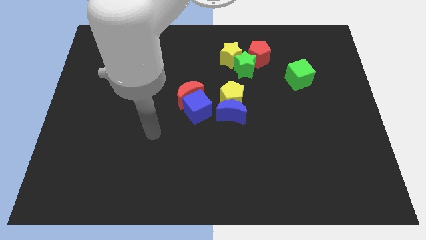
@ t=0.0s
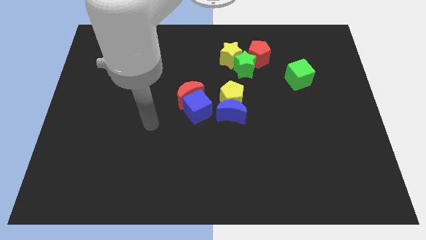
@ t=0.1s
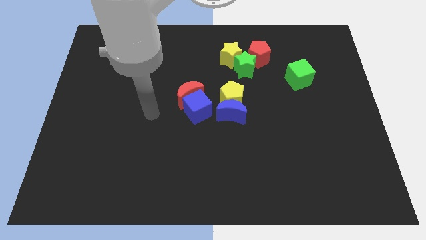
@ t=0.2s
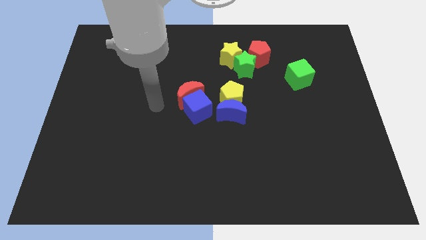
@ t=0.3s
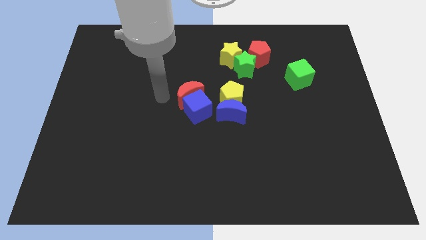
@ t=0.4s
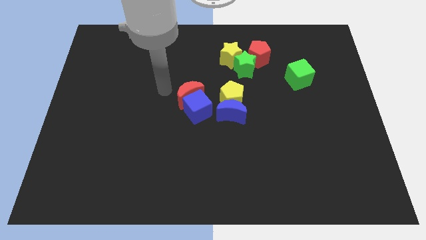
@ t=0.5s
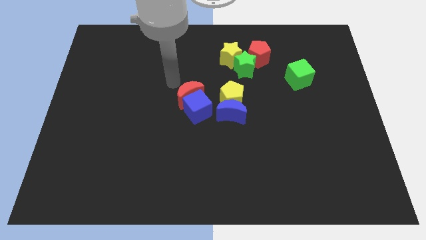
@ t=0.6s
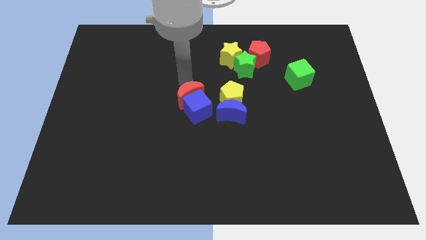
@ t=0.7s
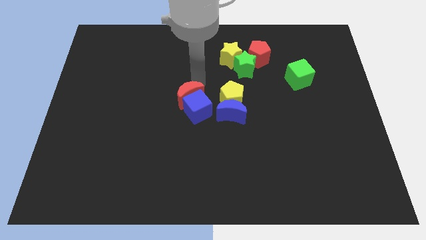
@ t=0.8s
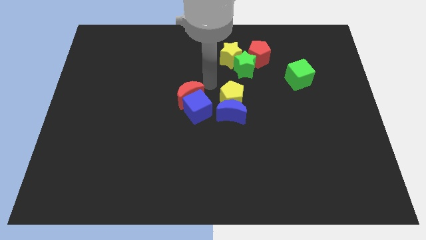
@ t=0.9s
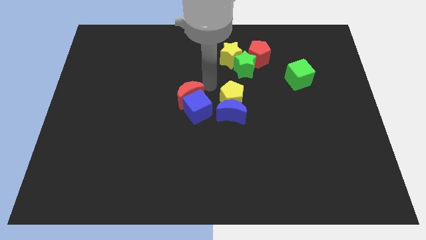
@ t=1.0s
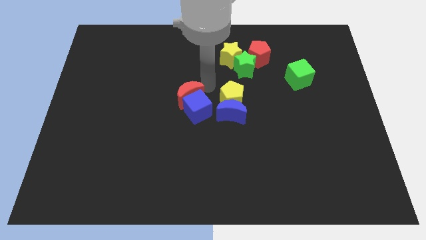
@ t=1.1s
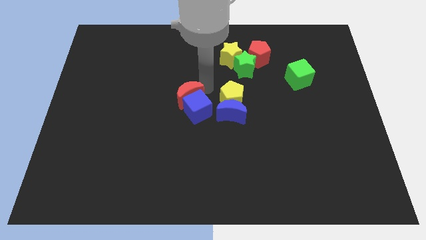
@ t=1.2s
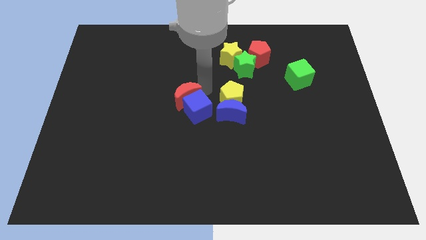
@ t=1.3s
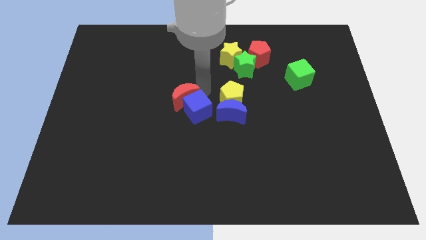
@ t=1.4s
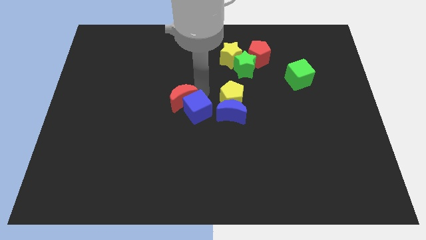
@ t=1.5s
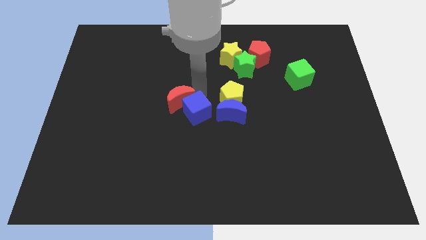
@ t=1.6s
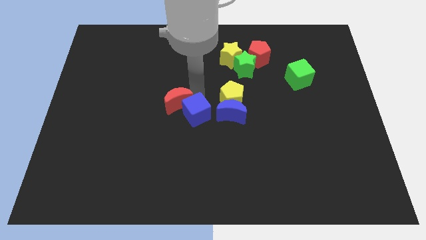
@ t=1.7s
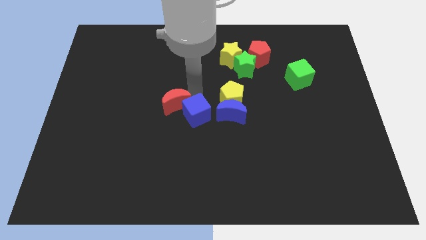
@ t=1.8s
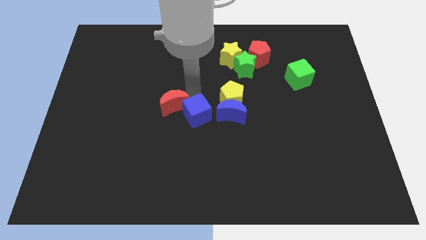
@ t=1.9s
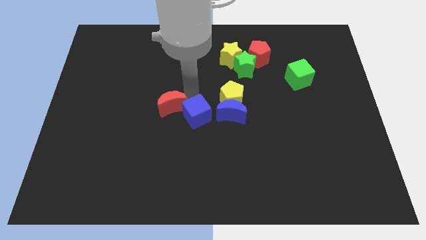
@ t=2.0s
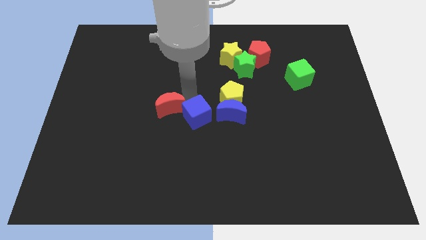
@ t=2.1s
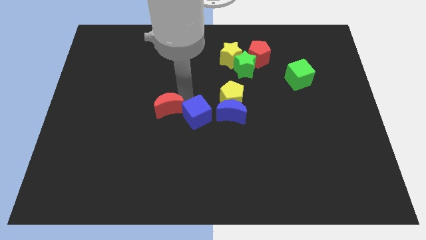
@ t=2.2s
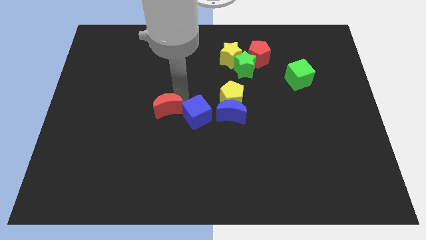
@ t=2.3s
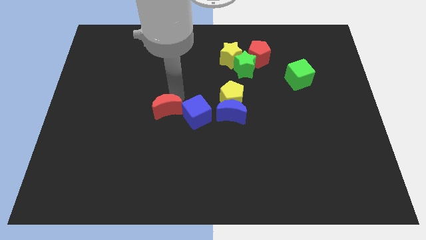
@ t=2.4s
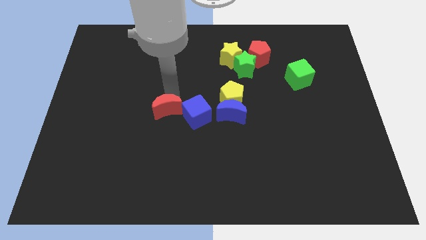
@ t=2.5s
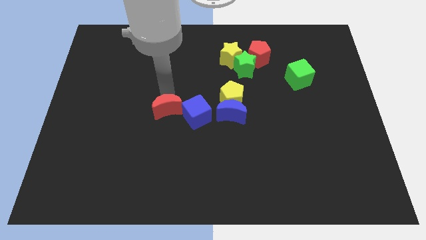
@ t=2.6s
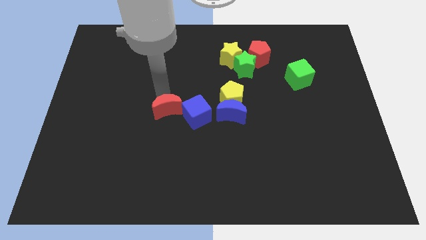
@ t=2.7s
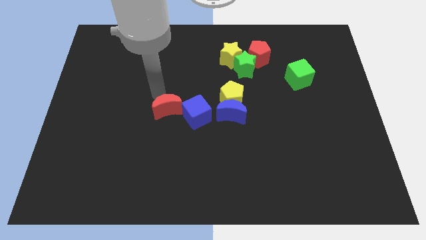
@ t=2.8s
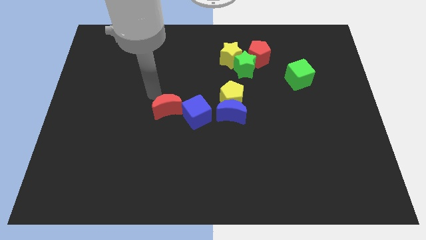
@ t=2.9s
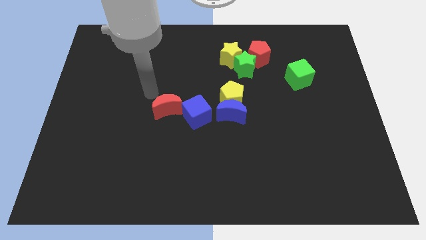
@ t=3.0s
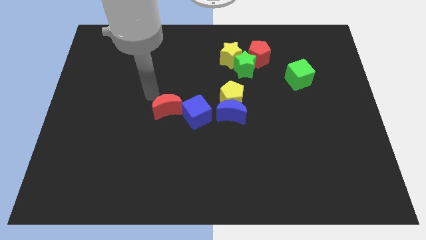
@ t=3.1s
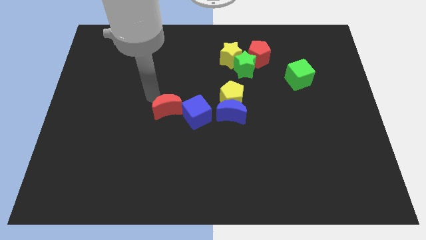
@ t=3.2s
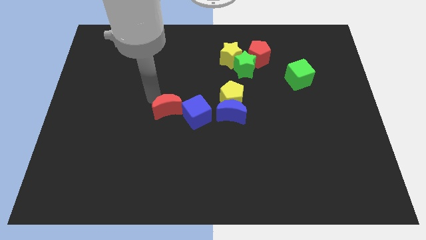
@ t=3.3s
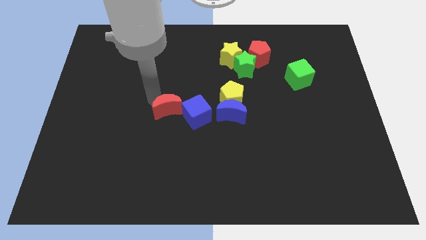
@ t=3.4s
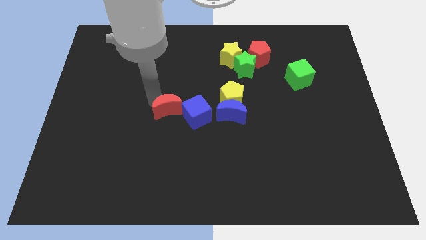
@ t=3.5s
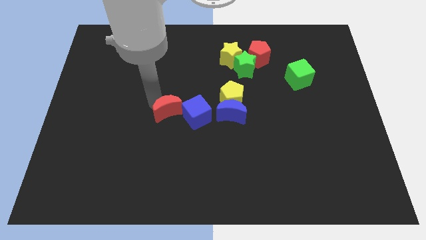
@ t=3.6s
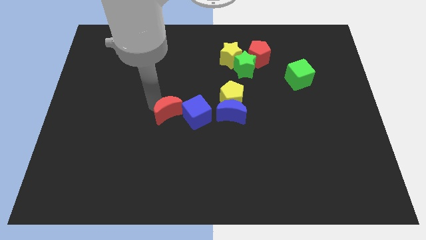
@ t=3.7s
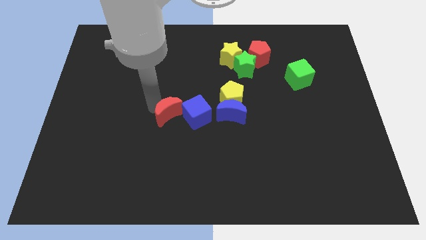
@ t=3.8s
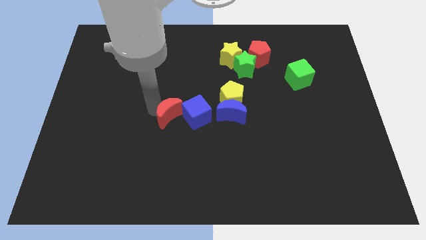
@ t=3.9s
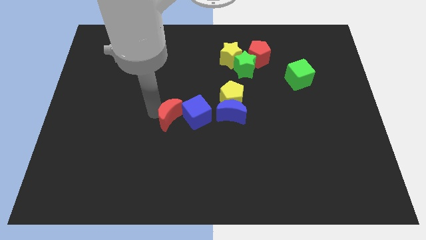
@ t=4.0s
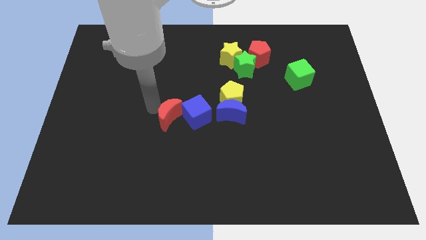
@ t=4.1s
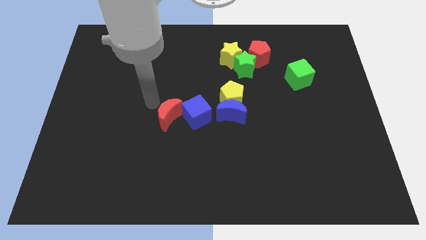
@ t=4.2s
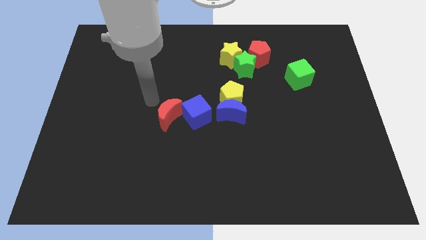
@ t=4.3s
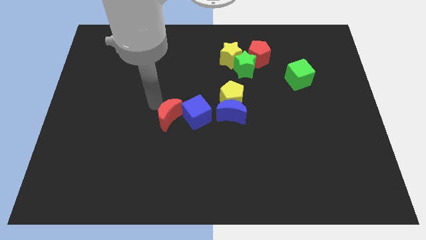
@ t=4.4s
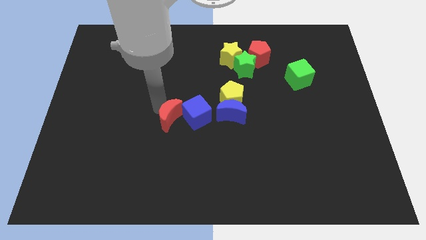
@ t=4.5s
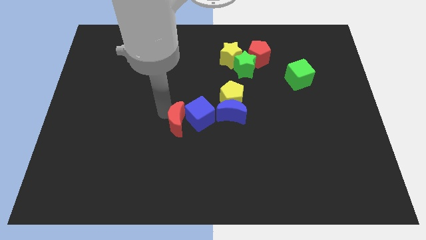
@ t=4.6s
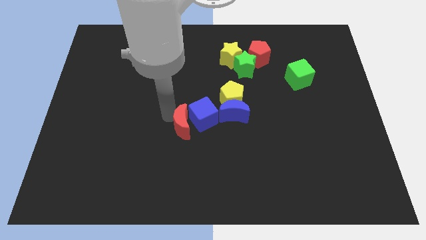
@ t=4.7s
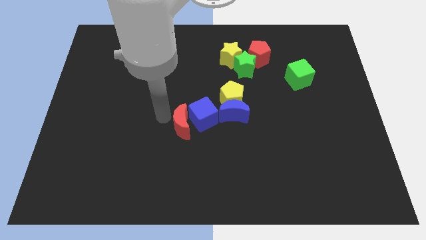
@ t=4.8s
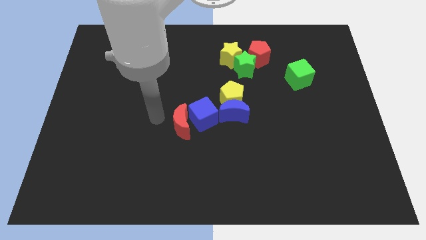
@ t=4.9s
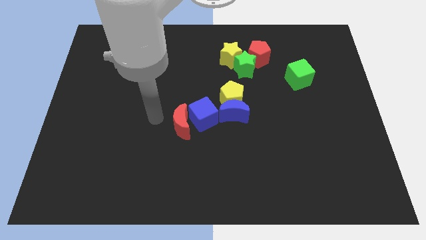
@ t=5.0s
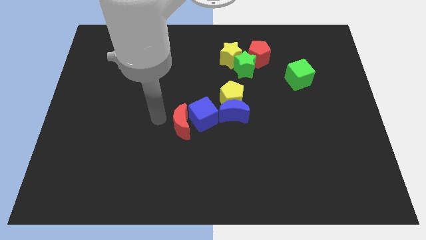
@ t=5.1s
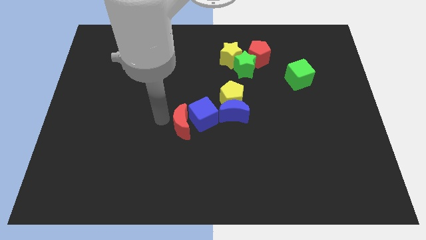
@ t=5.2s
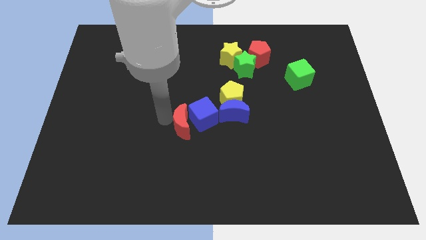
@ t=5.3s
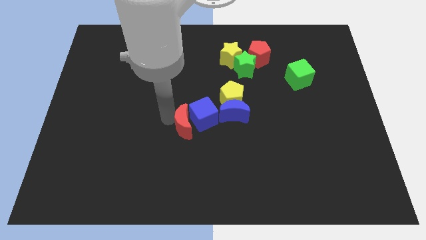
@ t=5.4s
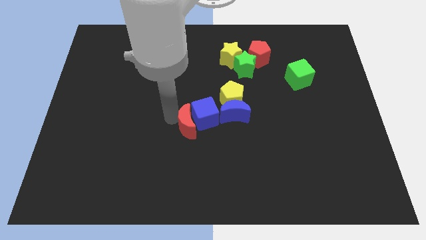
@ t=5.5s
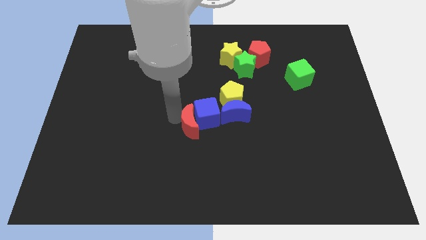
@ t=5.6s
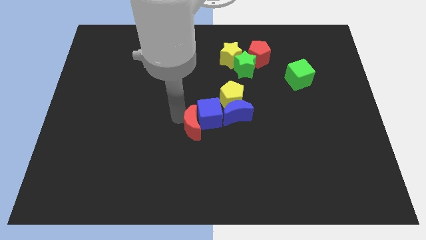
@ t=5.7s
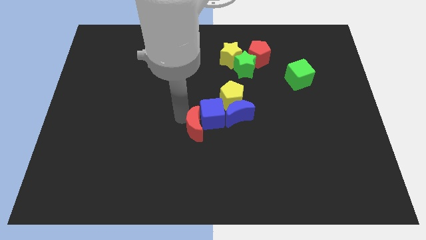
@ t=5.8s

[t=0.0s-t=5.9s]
move the red moon to the bottom left of the blue moon

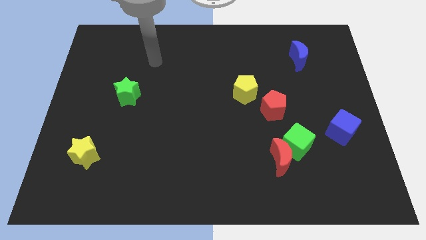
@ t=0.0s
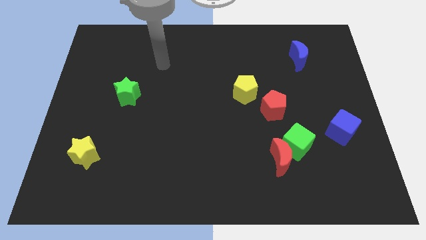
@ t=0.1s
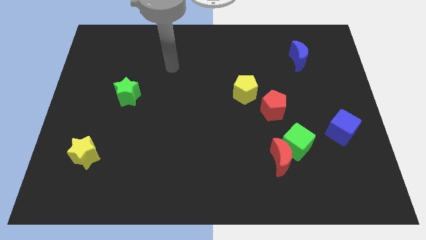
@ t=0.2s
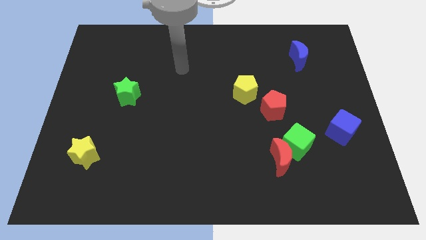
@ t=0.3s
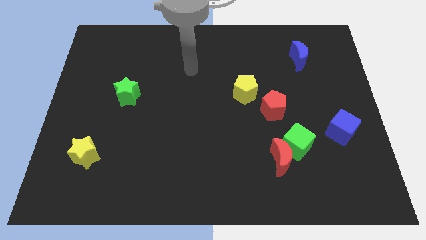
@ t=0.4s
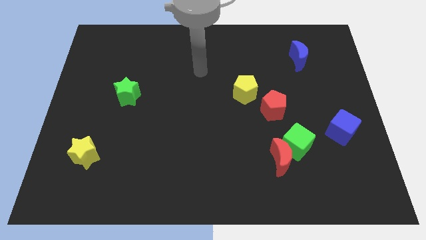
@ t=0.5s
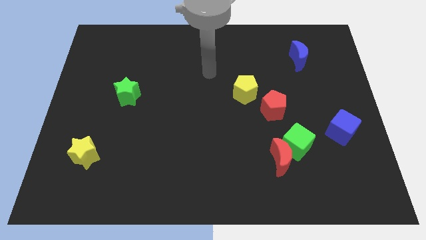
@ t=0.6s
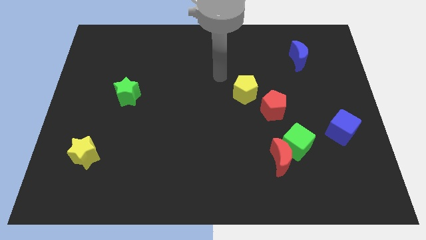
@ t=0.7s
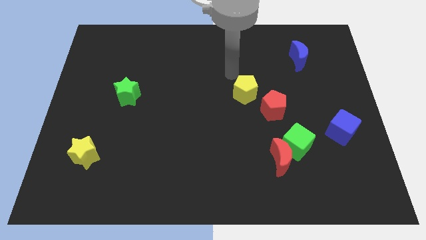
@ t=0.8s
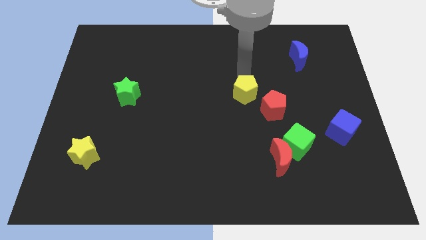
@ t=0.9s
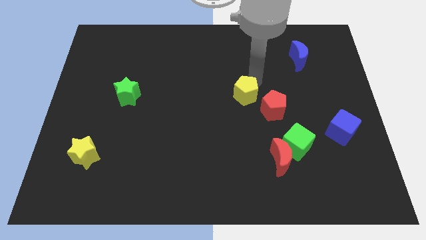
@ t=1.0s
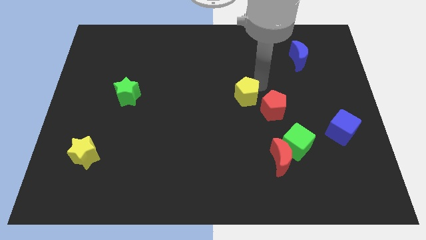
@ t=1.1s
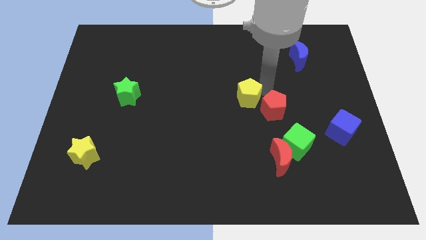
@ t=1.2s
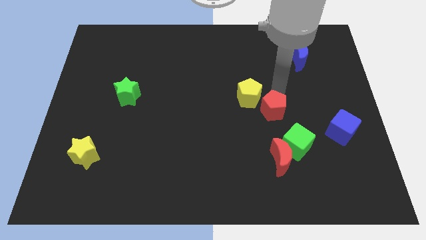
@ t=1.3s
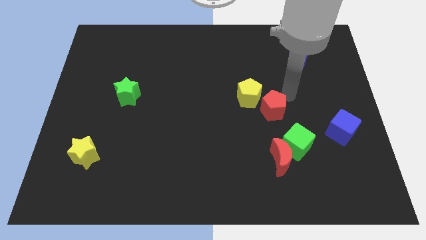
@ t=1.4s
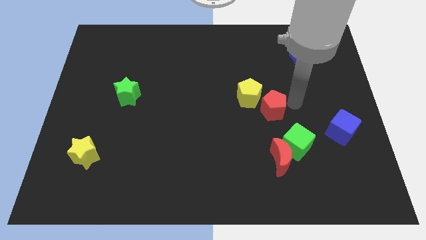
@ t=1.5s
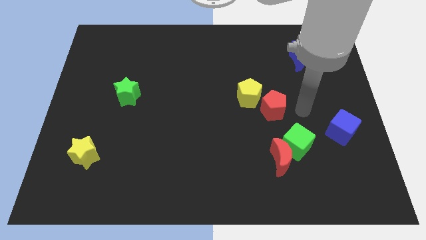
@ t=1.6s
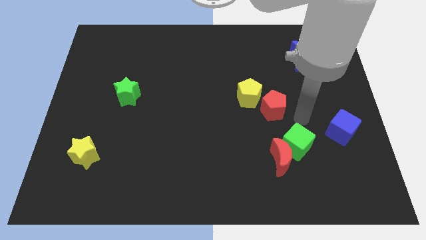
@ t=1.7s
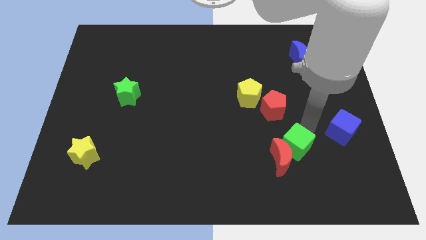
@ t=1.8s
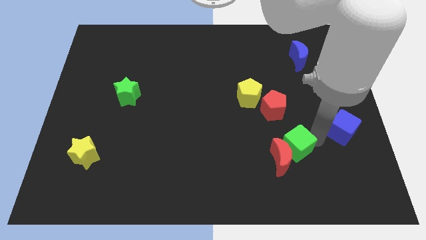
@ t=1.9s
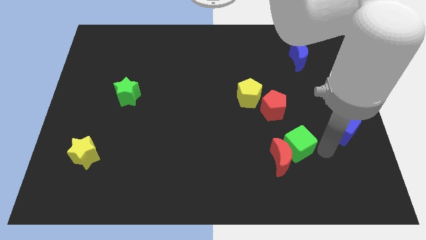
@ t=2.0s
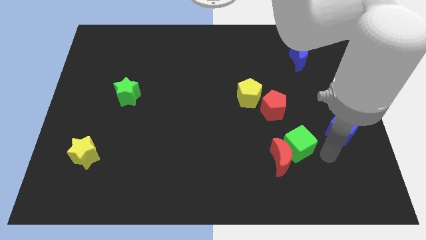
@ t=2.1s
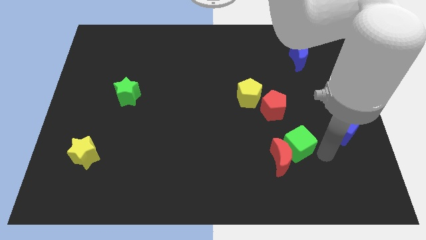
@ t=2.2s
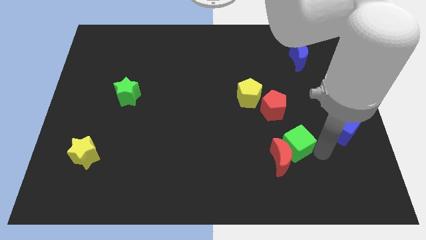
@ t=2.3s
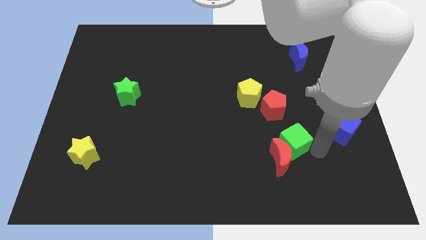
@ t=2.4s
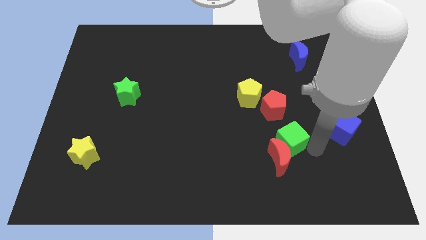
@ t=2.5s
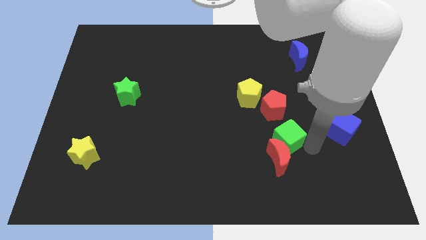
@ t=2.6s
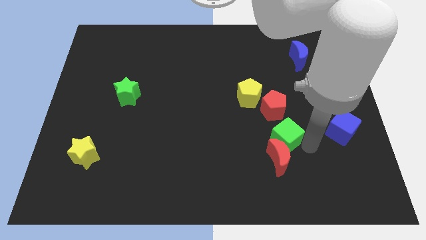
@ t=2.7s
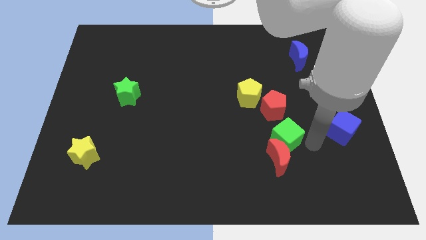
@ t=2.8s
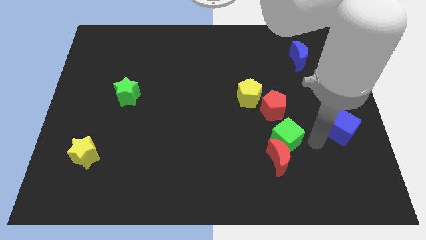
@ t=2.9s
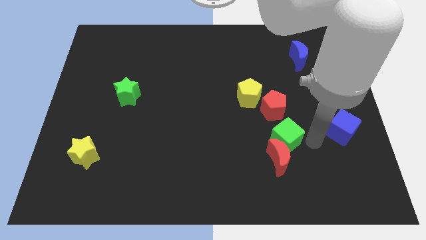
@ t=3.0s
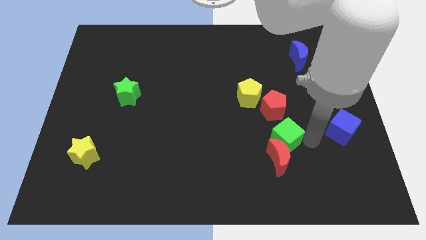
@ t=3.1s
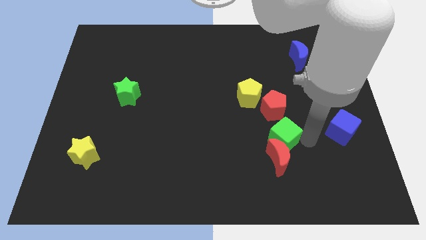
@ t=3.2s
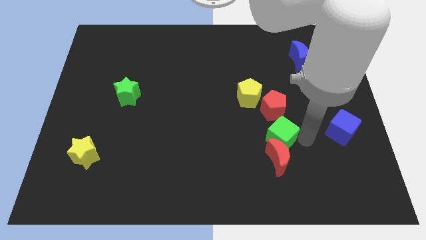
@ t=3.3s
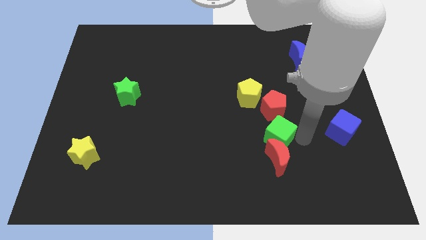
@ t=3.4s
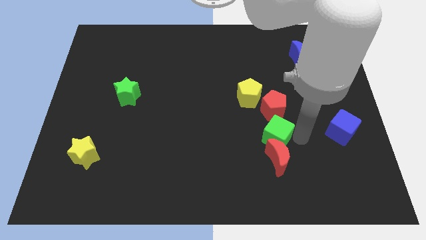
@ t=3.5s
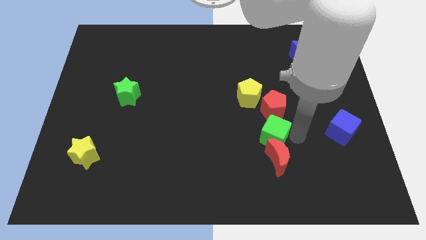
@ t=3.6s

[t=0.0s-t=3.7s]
slide the green cube below the yellow pentagon
